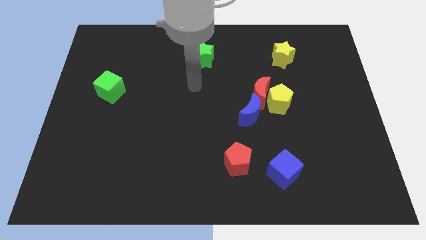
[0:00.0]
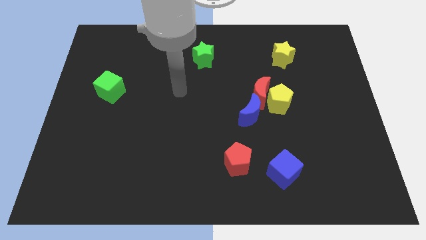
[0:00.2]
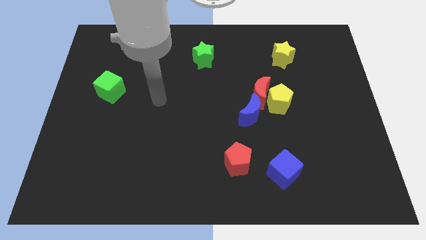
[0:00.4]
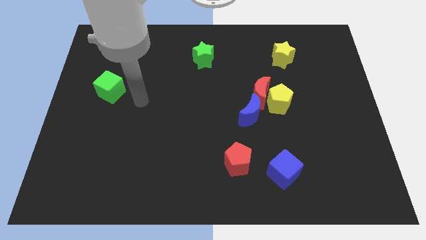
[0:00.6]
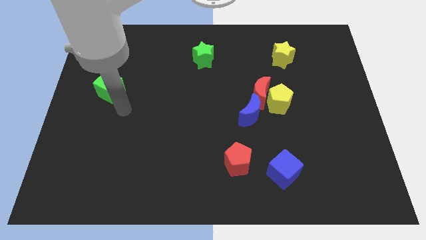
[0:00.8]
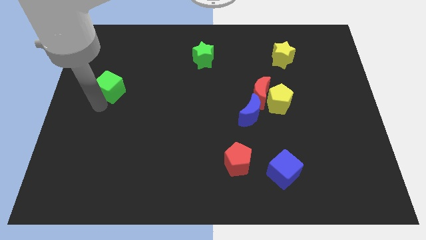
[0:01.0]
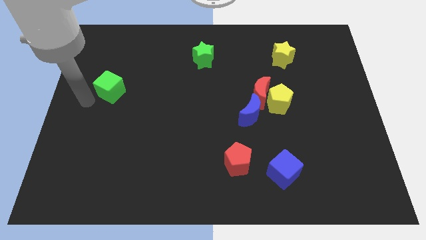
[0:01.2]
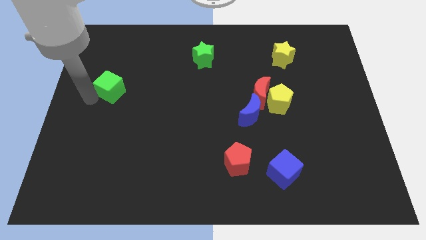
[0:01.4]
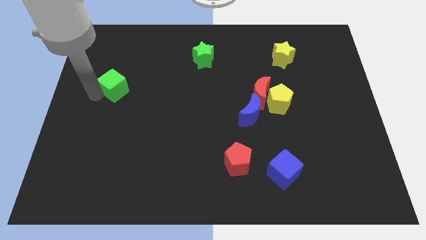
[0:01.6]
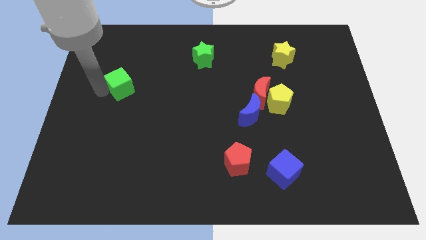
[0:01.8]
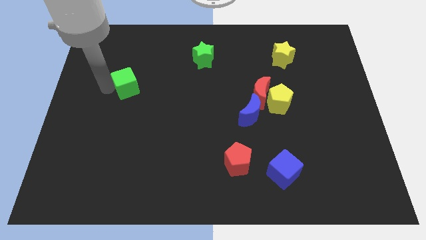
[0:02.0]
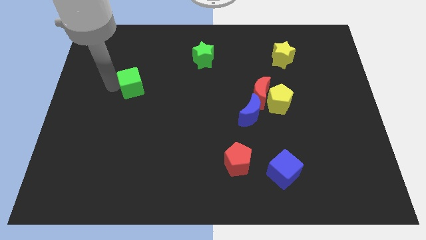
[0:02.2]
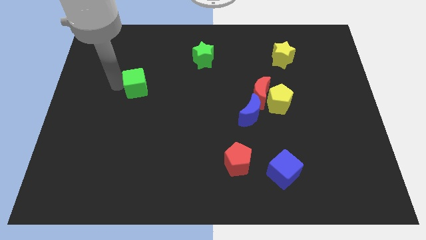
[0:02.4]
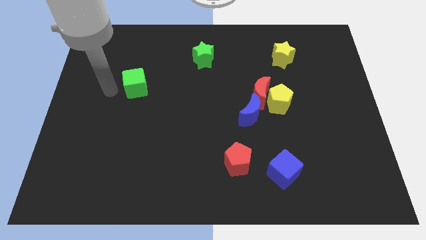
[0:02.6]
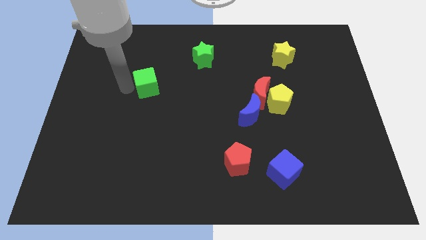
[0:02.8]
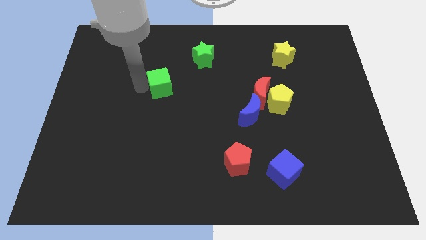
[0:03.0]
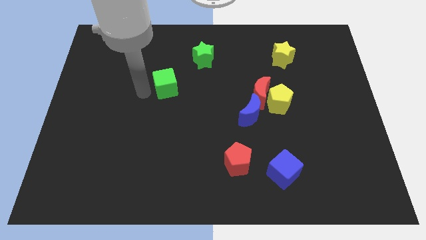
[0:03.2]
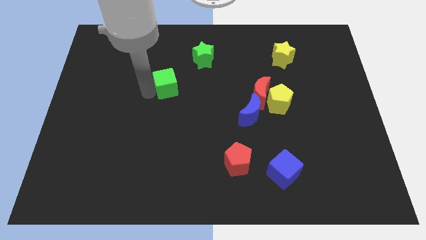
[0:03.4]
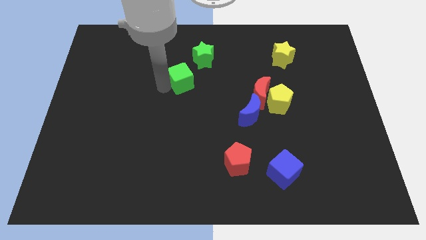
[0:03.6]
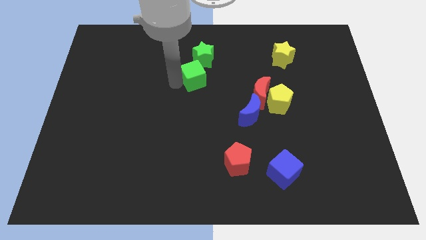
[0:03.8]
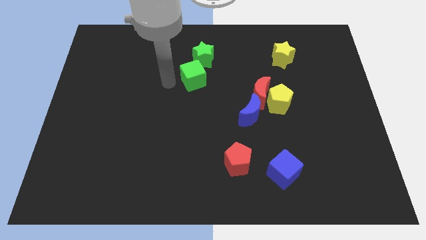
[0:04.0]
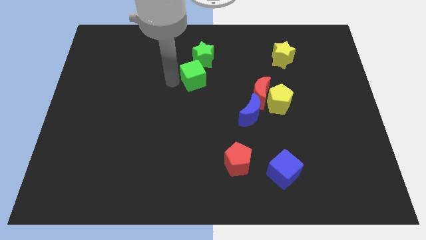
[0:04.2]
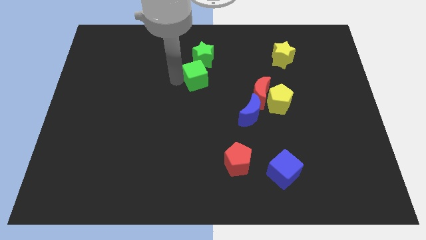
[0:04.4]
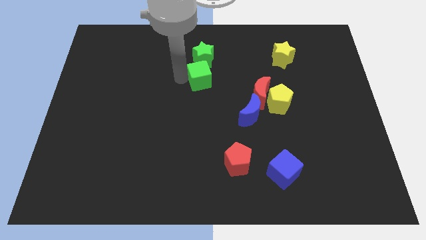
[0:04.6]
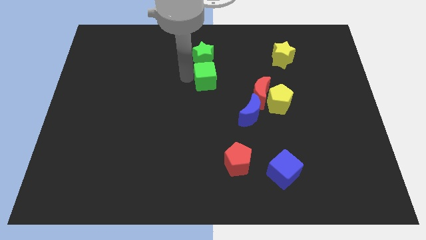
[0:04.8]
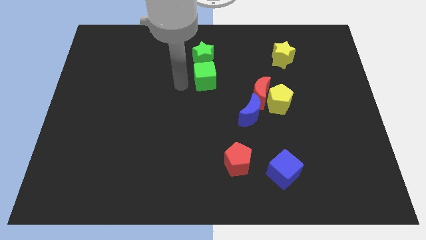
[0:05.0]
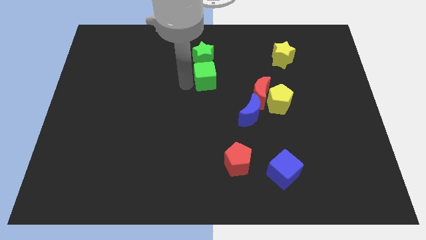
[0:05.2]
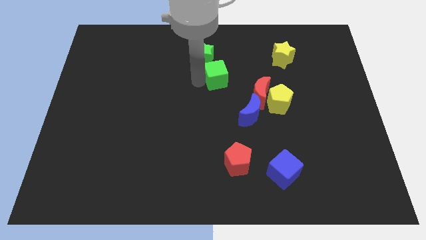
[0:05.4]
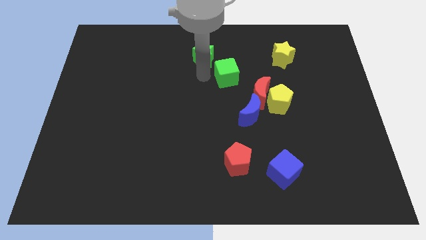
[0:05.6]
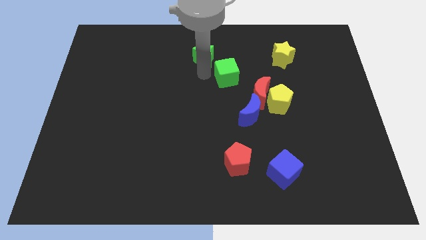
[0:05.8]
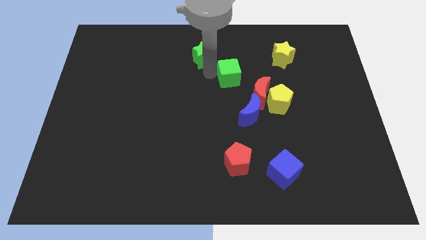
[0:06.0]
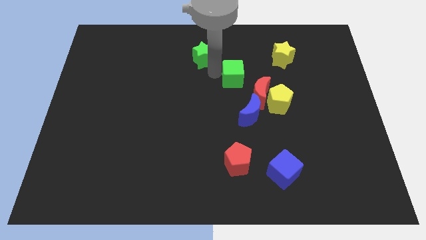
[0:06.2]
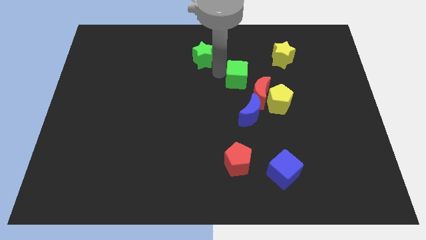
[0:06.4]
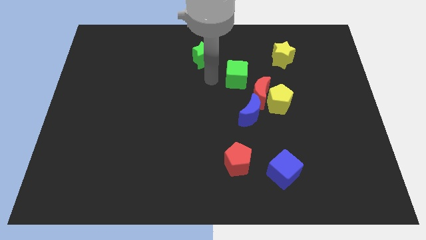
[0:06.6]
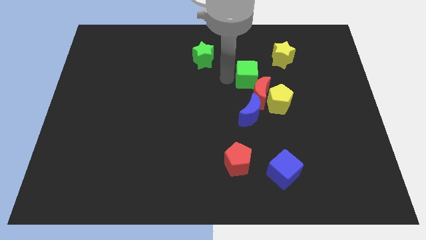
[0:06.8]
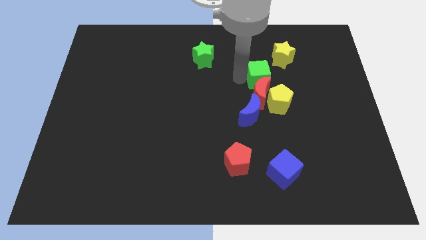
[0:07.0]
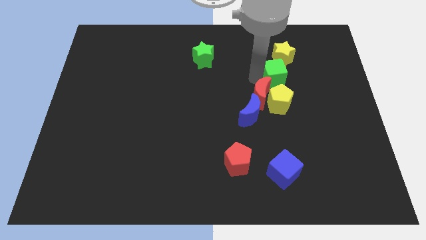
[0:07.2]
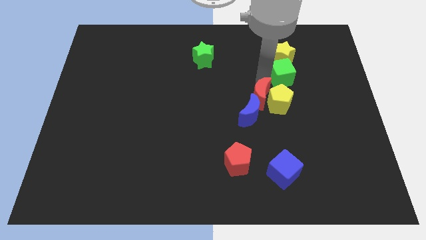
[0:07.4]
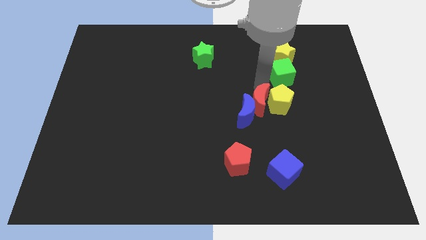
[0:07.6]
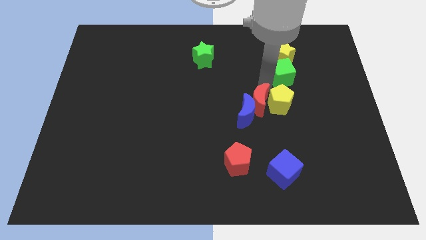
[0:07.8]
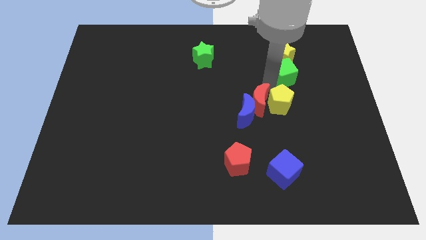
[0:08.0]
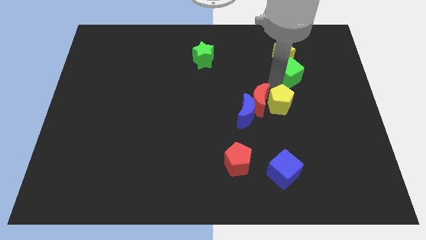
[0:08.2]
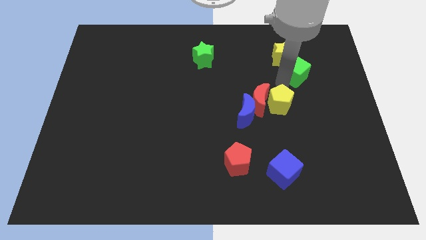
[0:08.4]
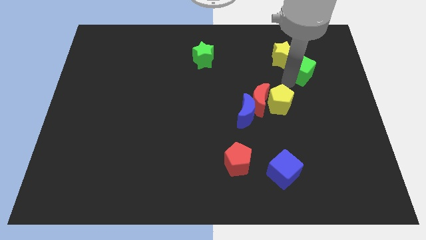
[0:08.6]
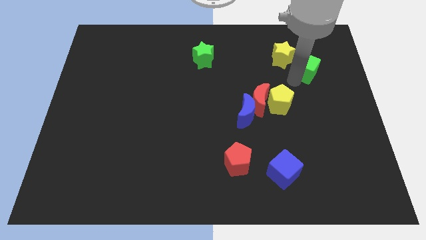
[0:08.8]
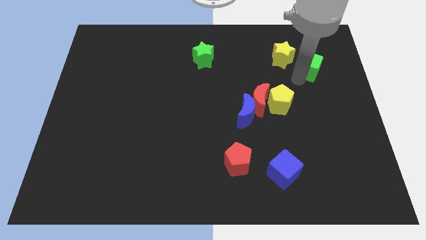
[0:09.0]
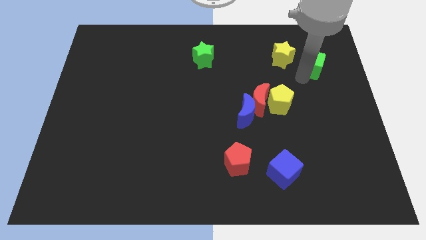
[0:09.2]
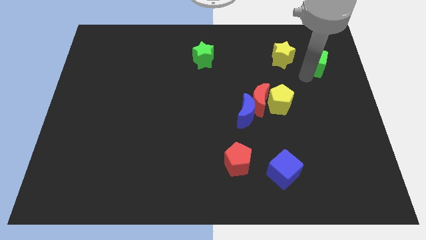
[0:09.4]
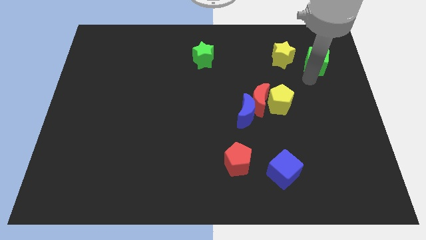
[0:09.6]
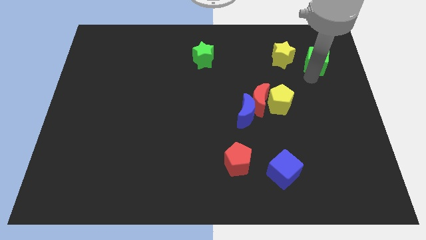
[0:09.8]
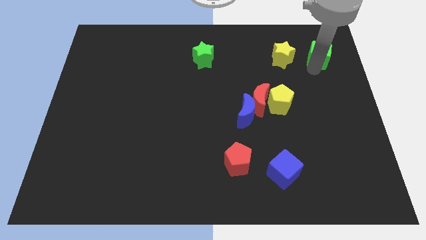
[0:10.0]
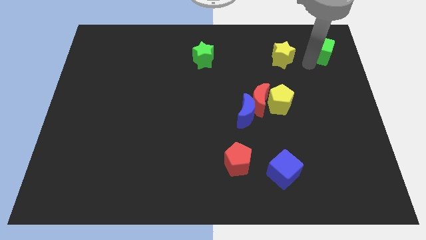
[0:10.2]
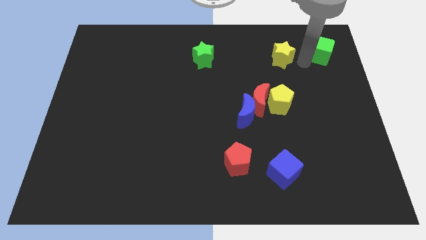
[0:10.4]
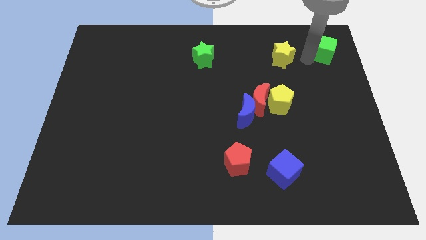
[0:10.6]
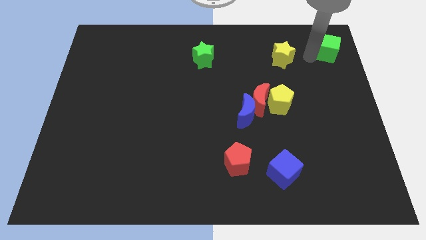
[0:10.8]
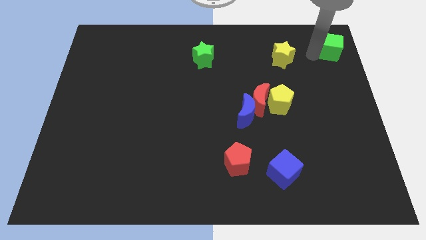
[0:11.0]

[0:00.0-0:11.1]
slide the green cube to the top right

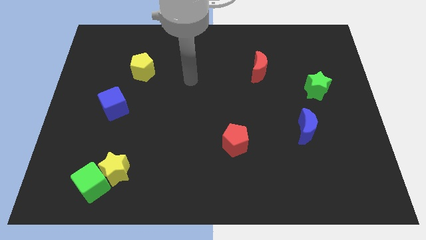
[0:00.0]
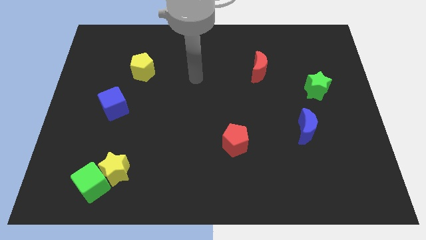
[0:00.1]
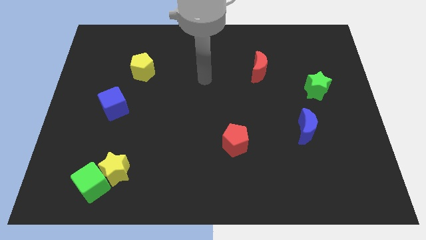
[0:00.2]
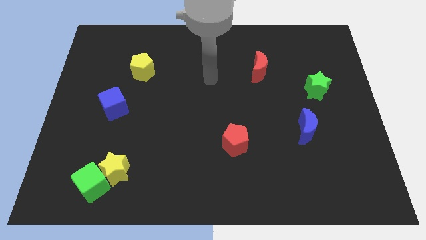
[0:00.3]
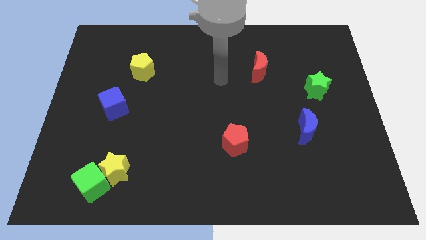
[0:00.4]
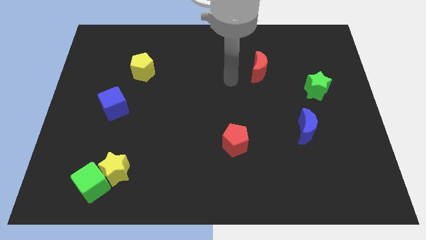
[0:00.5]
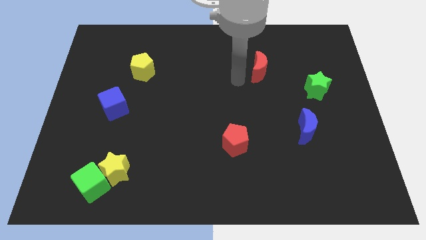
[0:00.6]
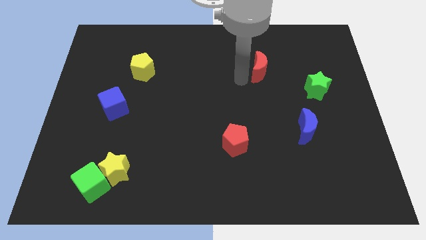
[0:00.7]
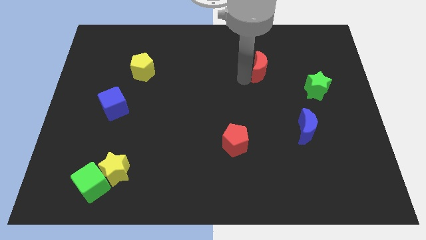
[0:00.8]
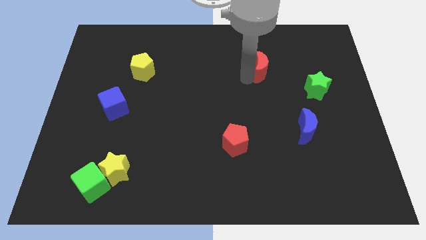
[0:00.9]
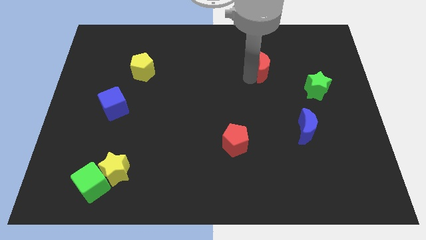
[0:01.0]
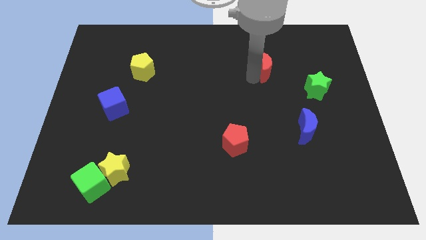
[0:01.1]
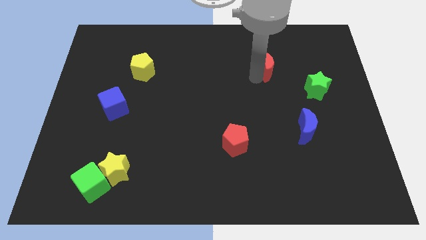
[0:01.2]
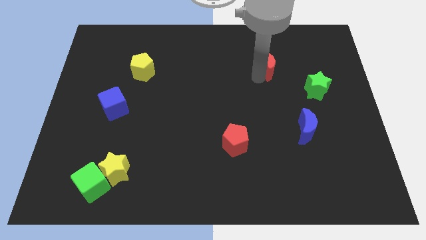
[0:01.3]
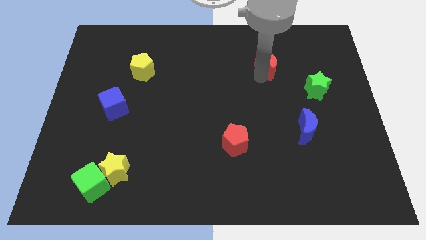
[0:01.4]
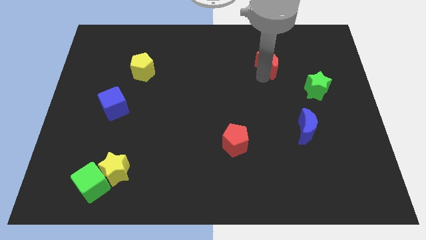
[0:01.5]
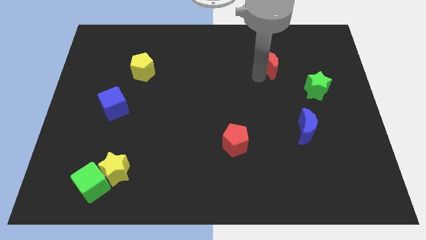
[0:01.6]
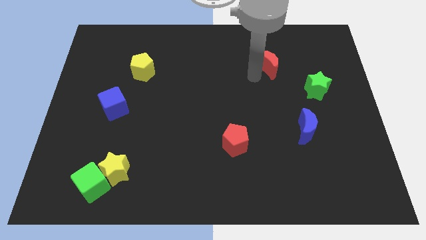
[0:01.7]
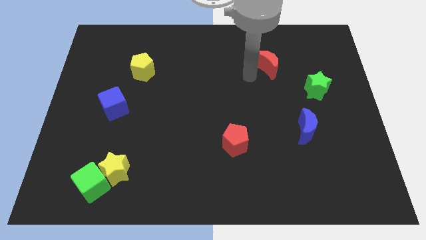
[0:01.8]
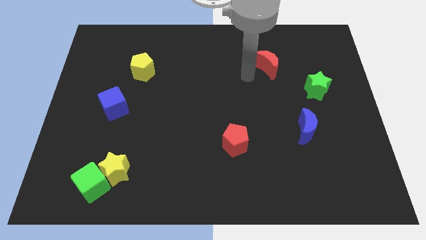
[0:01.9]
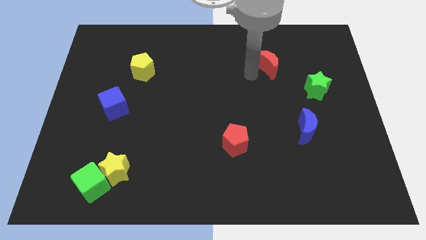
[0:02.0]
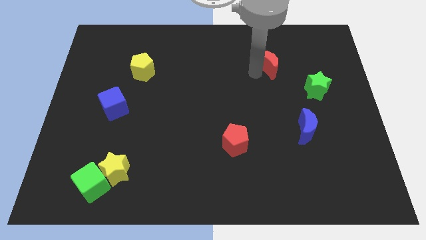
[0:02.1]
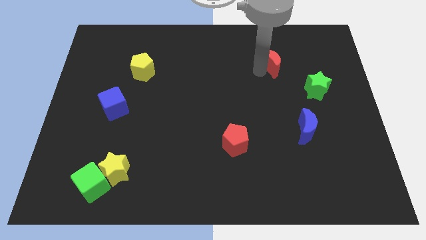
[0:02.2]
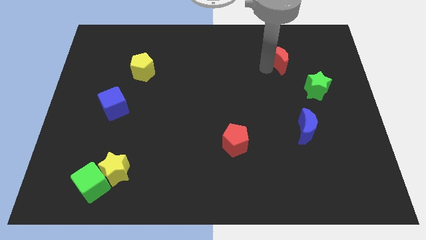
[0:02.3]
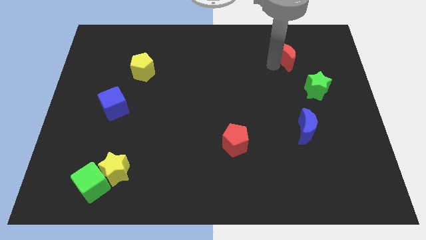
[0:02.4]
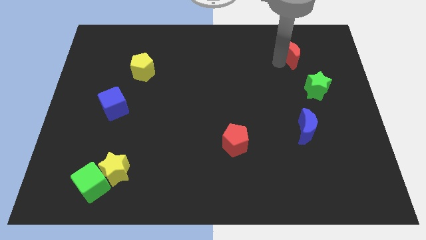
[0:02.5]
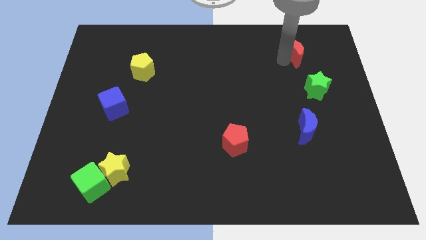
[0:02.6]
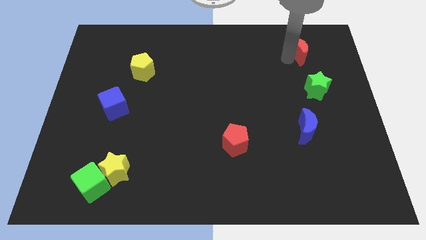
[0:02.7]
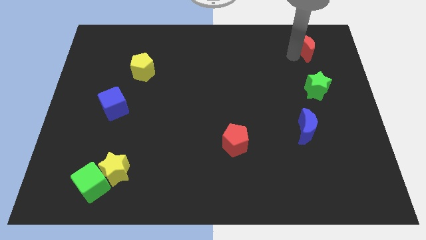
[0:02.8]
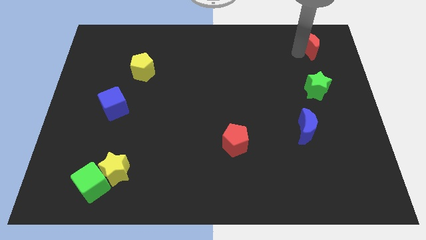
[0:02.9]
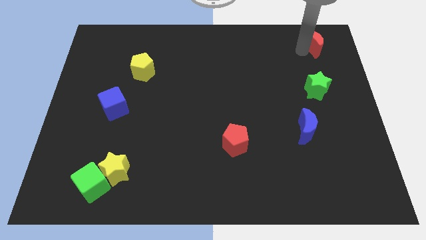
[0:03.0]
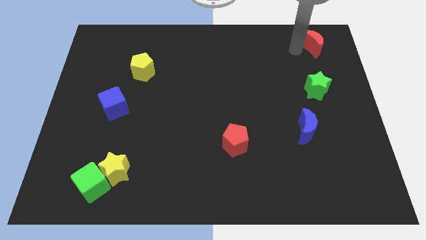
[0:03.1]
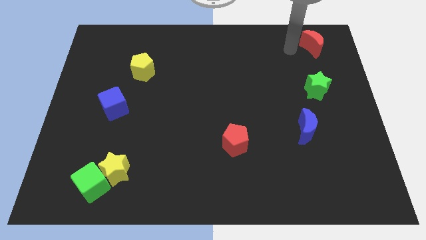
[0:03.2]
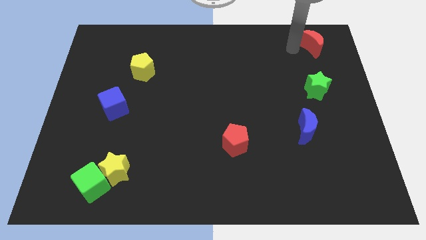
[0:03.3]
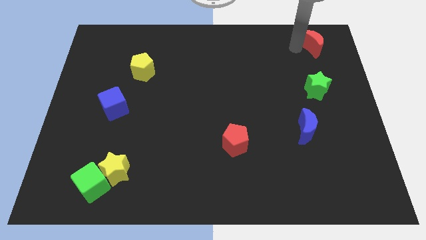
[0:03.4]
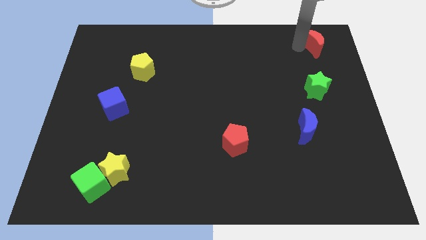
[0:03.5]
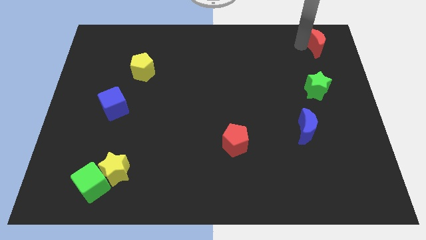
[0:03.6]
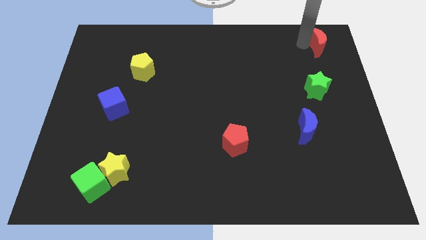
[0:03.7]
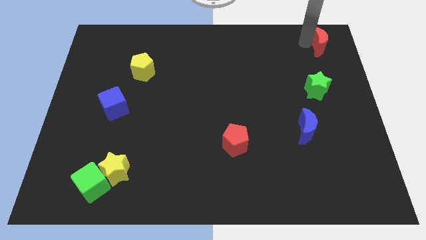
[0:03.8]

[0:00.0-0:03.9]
push the red moon to the top right of the board
